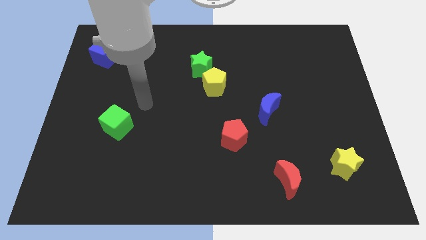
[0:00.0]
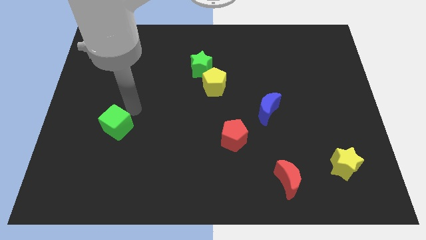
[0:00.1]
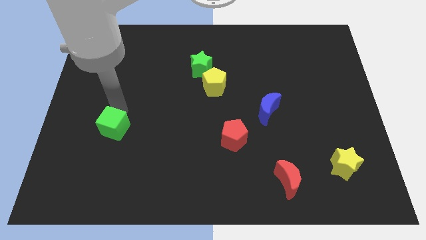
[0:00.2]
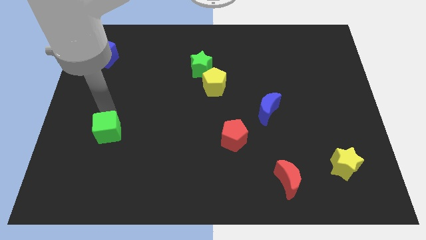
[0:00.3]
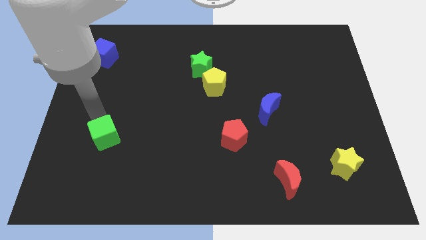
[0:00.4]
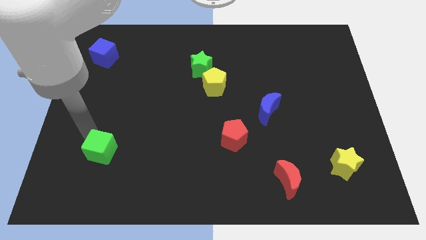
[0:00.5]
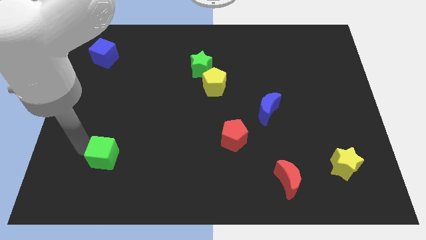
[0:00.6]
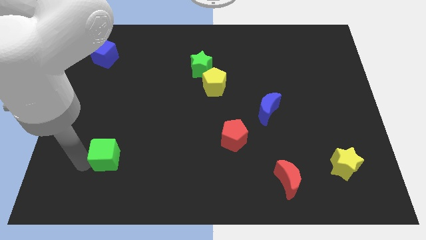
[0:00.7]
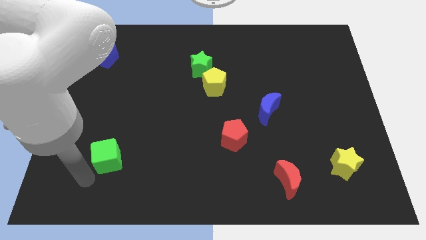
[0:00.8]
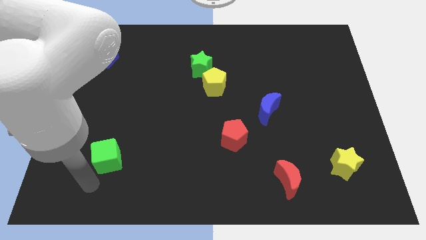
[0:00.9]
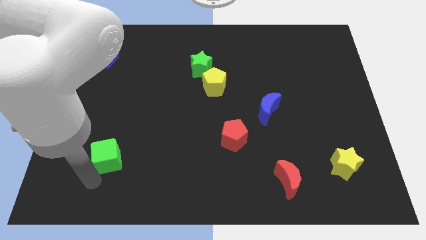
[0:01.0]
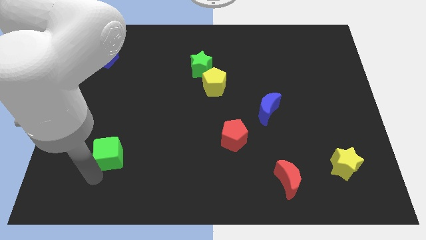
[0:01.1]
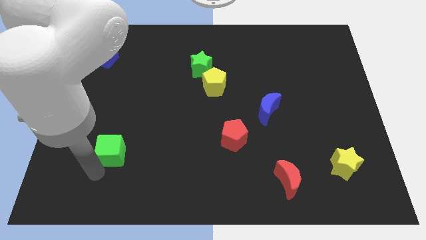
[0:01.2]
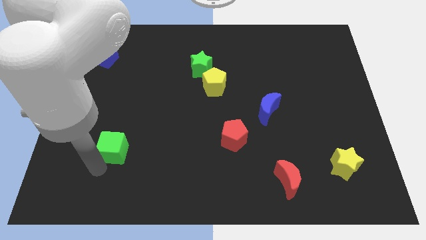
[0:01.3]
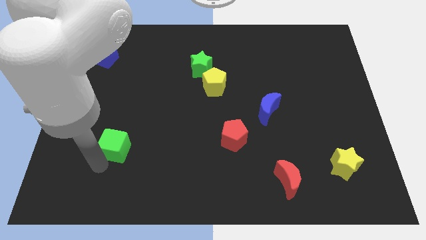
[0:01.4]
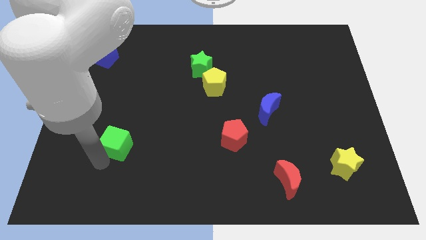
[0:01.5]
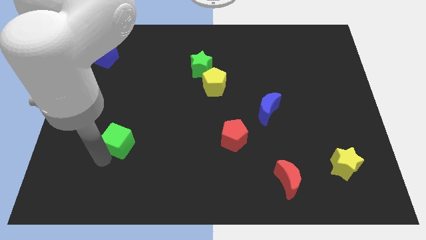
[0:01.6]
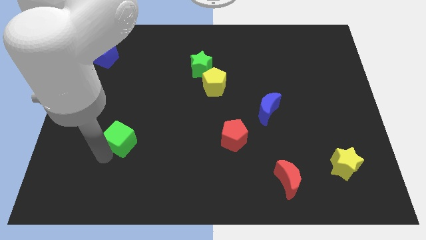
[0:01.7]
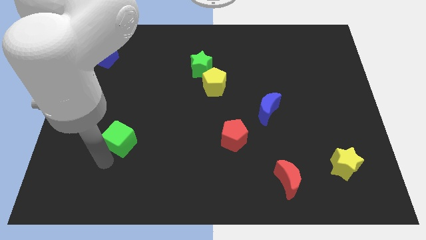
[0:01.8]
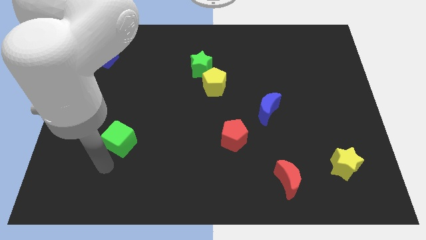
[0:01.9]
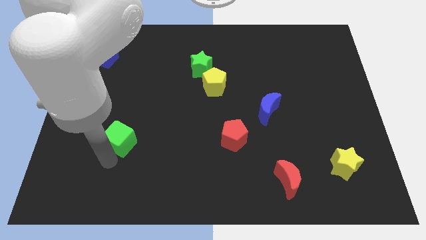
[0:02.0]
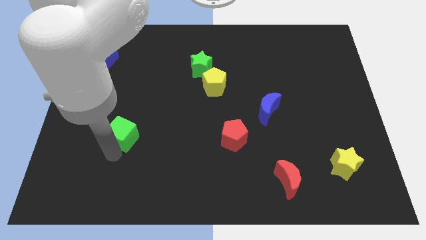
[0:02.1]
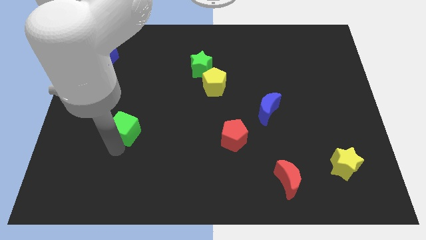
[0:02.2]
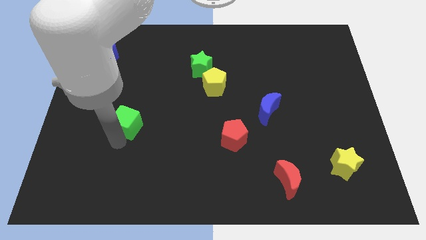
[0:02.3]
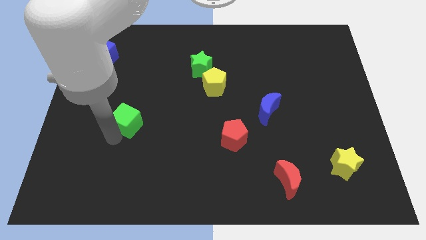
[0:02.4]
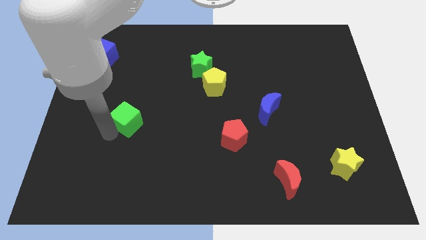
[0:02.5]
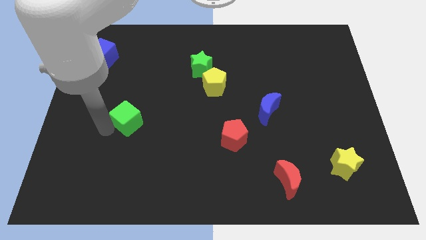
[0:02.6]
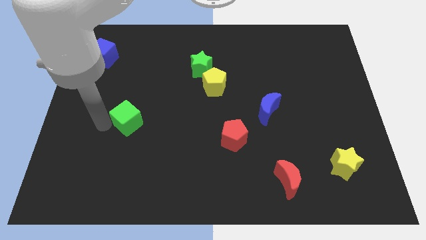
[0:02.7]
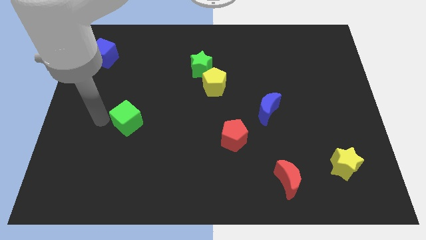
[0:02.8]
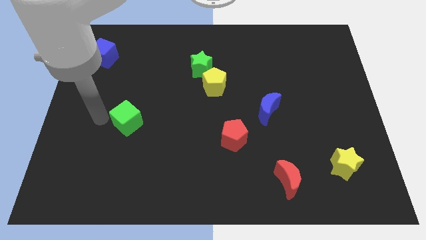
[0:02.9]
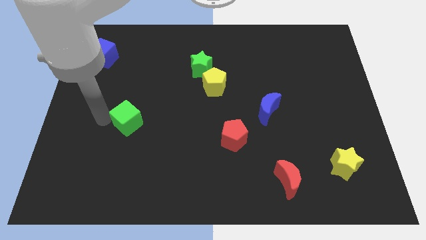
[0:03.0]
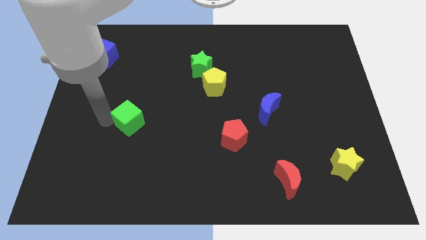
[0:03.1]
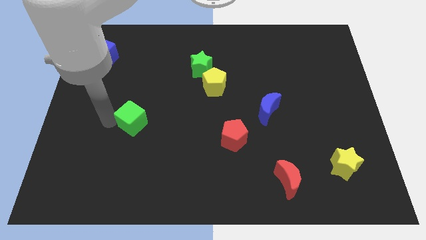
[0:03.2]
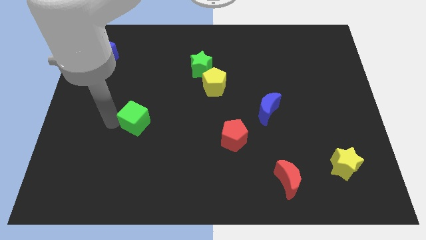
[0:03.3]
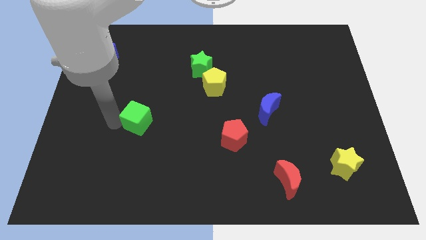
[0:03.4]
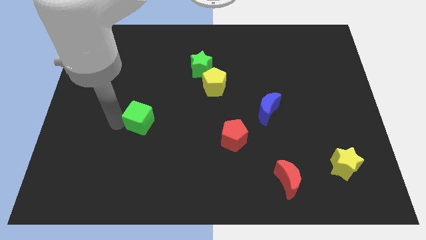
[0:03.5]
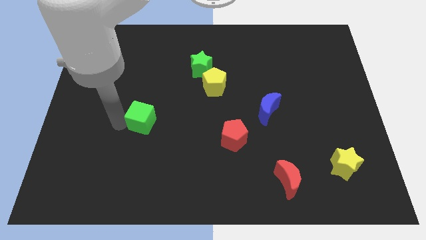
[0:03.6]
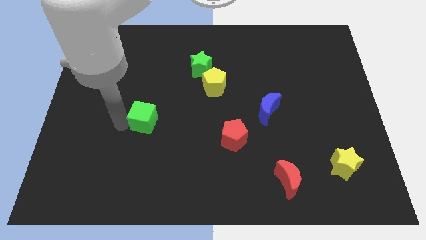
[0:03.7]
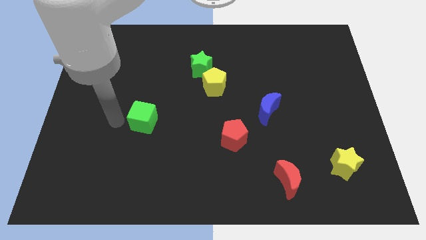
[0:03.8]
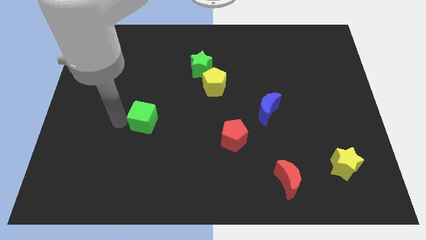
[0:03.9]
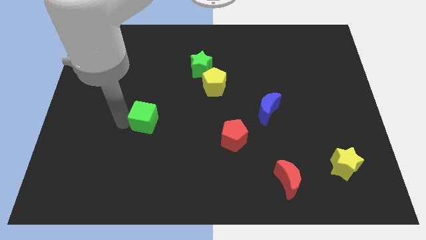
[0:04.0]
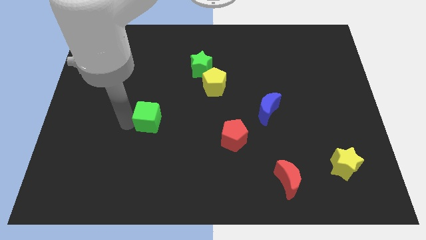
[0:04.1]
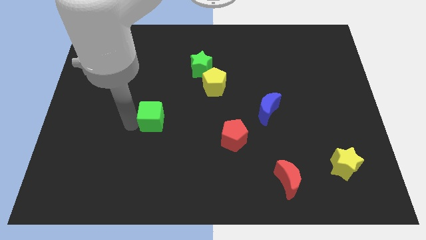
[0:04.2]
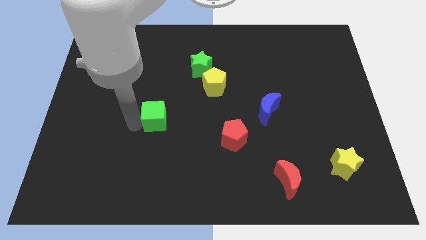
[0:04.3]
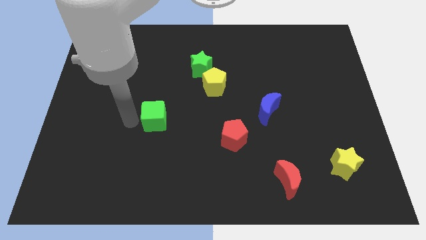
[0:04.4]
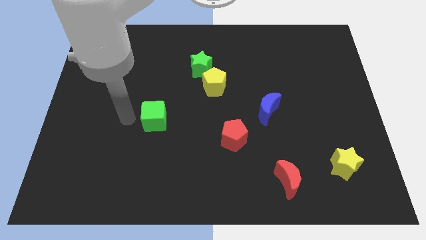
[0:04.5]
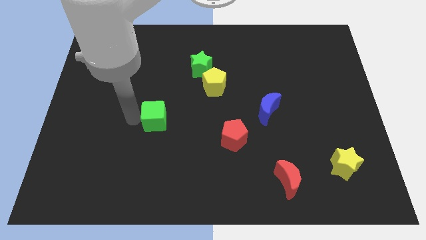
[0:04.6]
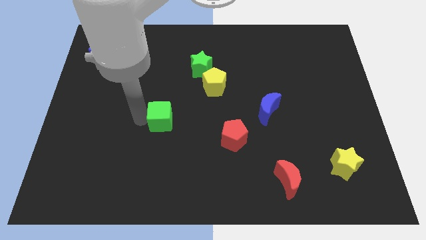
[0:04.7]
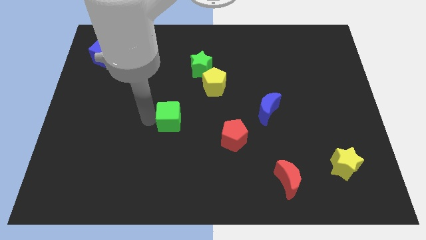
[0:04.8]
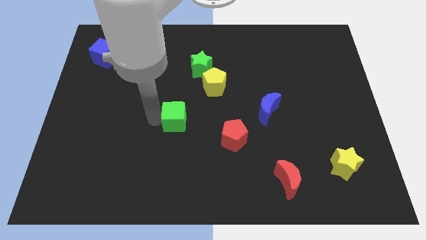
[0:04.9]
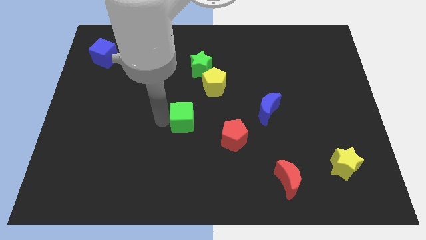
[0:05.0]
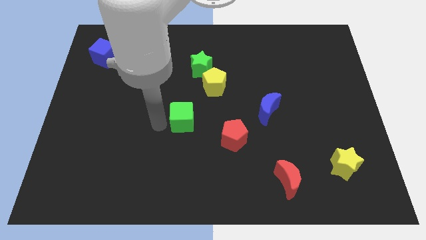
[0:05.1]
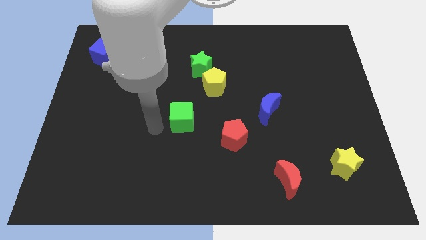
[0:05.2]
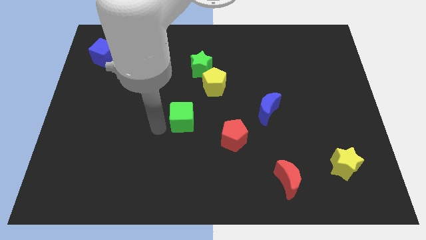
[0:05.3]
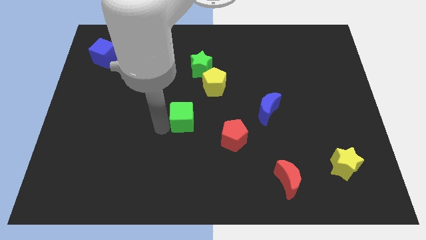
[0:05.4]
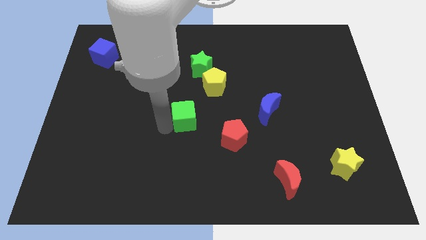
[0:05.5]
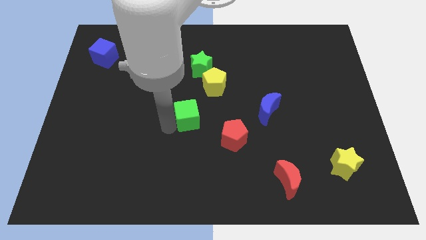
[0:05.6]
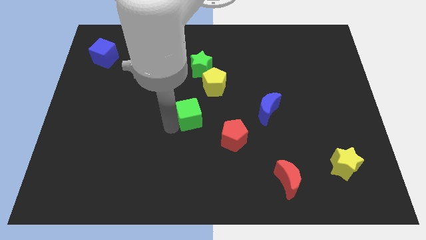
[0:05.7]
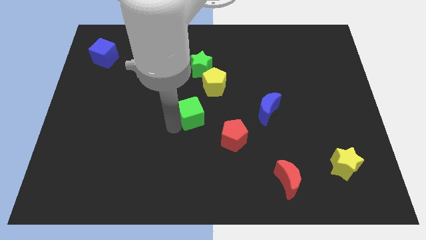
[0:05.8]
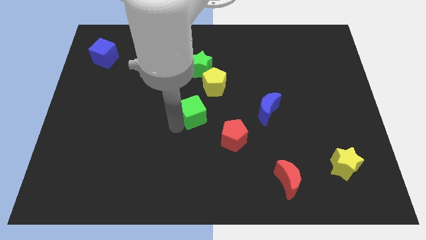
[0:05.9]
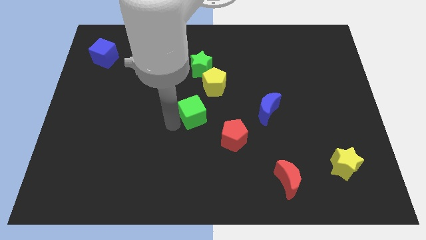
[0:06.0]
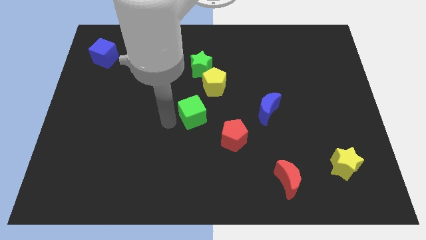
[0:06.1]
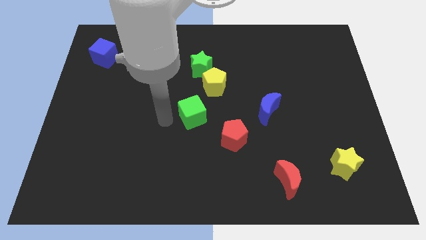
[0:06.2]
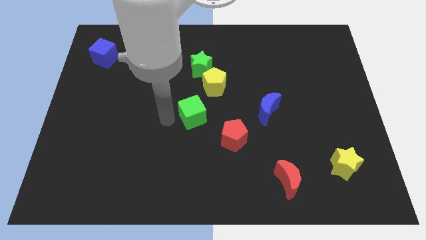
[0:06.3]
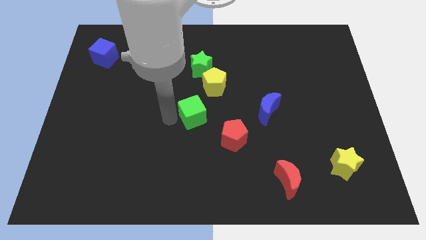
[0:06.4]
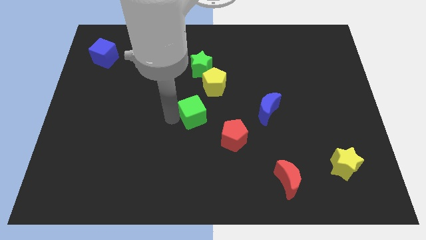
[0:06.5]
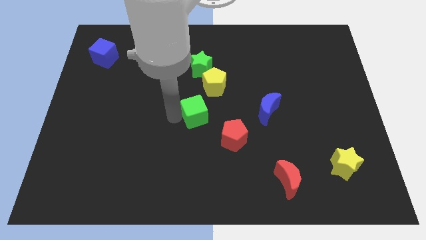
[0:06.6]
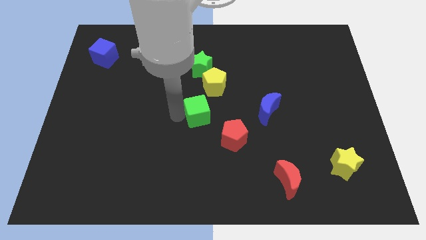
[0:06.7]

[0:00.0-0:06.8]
slide the green cube just left of the blue moon

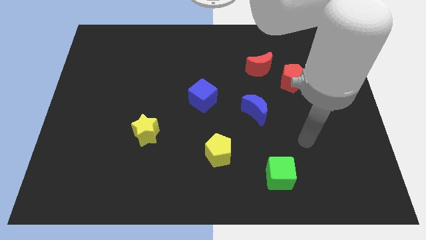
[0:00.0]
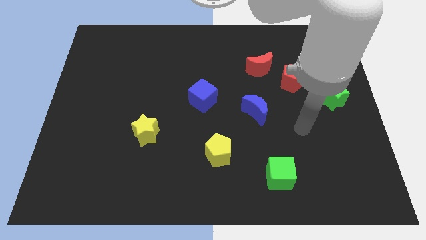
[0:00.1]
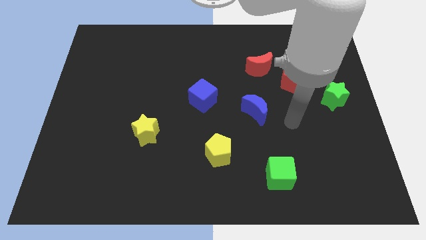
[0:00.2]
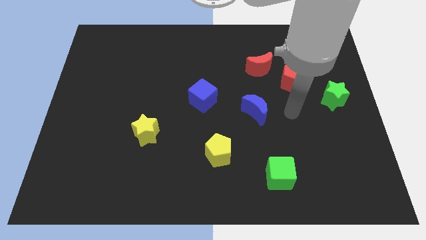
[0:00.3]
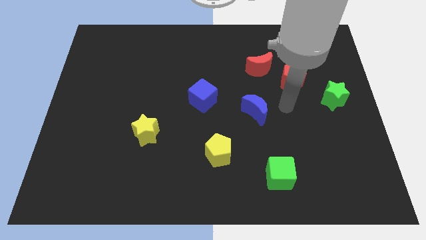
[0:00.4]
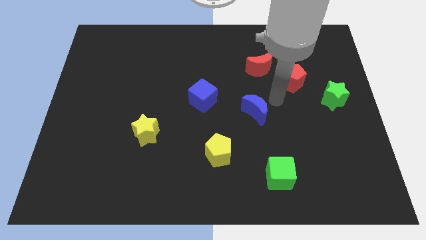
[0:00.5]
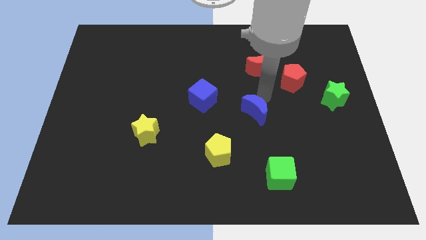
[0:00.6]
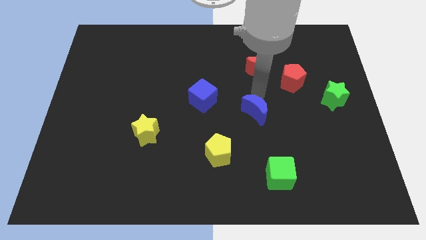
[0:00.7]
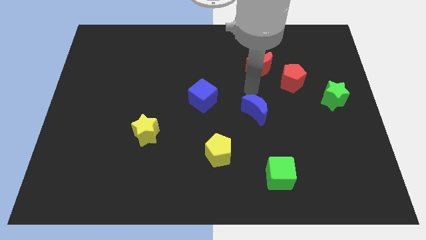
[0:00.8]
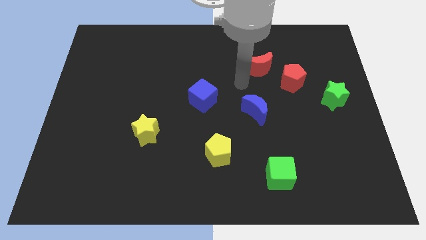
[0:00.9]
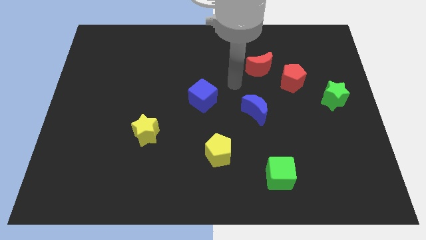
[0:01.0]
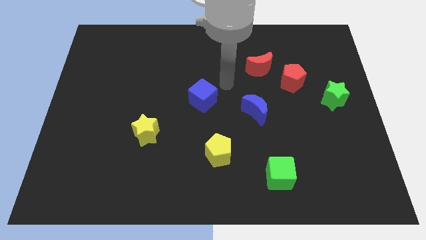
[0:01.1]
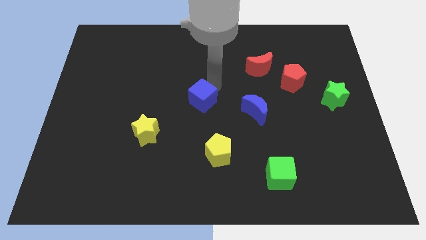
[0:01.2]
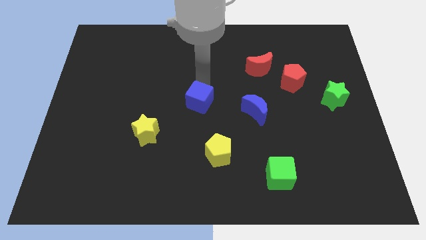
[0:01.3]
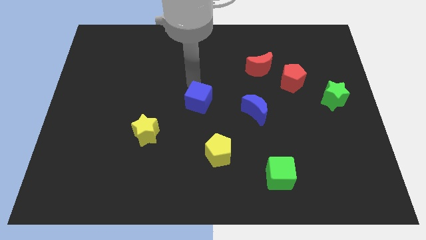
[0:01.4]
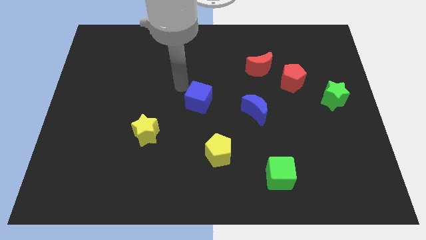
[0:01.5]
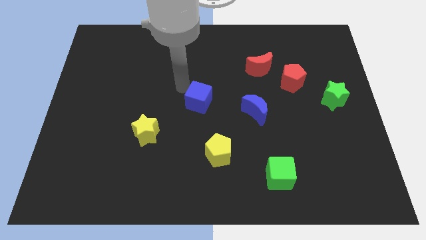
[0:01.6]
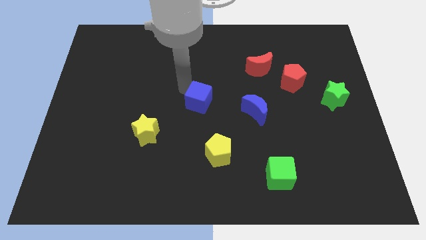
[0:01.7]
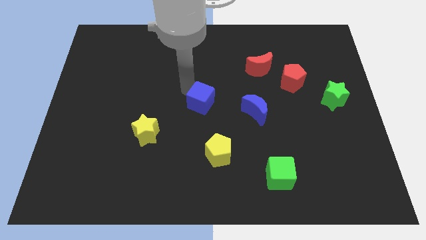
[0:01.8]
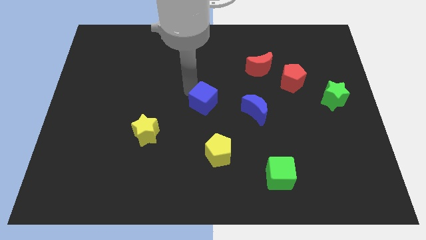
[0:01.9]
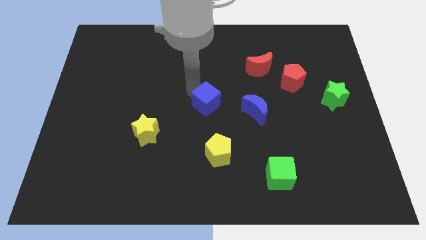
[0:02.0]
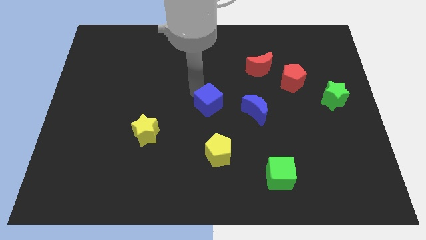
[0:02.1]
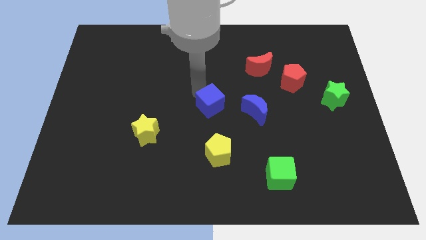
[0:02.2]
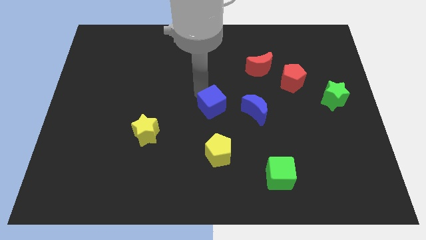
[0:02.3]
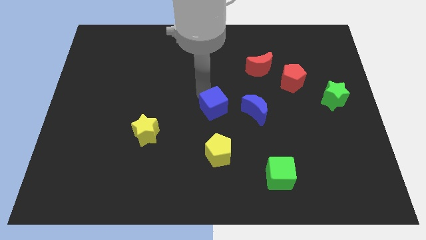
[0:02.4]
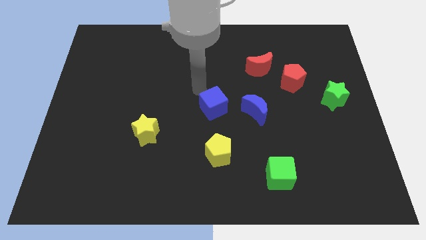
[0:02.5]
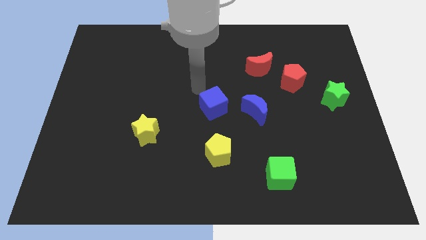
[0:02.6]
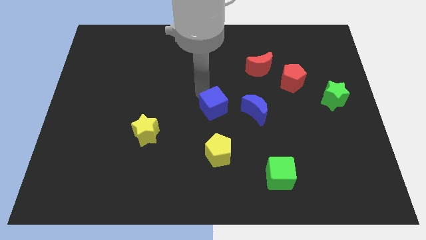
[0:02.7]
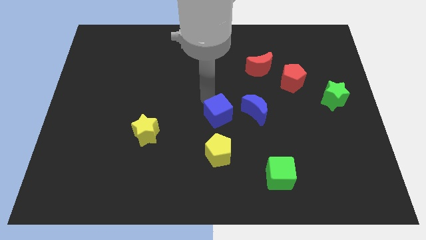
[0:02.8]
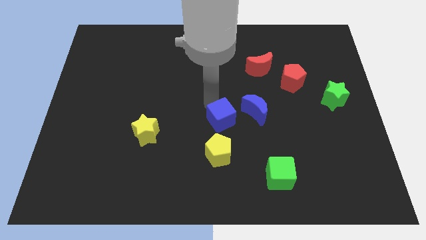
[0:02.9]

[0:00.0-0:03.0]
put the blue cube diagonally down and to the left of the blue moon
